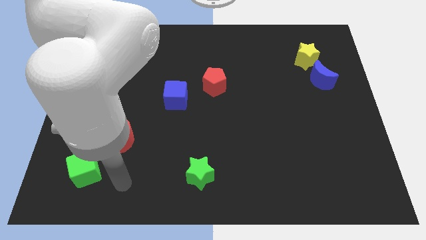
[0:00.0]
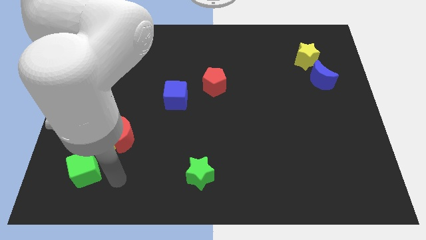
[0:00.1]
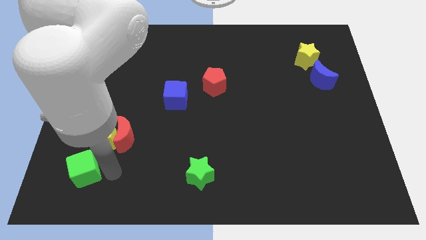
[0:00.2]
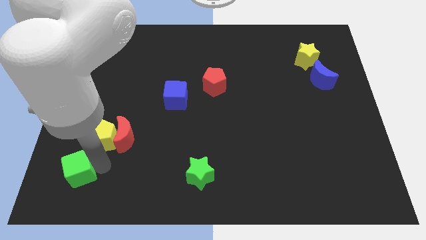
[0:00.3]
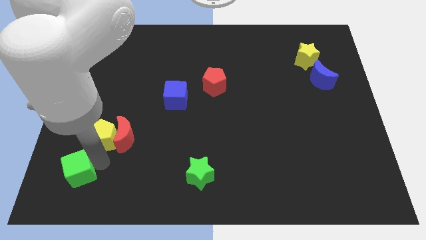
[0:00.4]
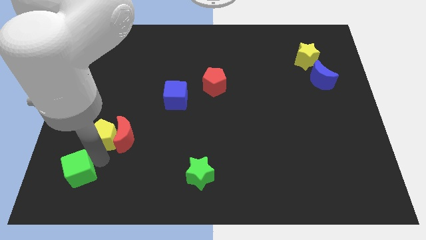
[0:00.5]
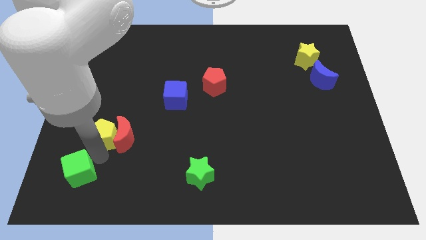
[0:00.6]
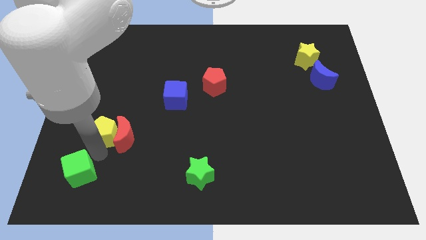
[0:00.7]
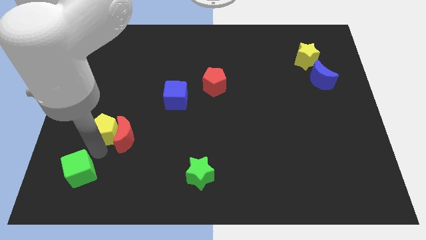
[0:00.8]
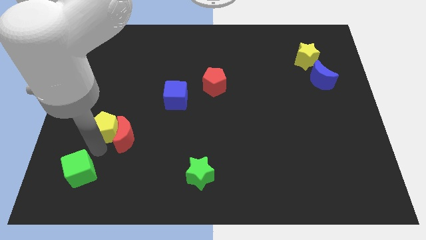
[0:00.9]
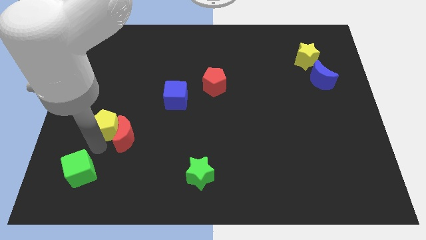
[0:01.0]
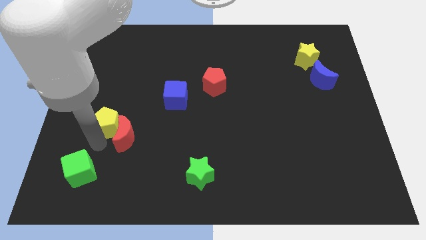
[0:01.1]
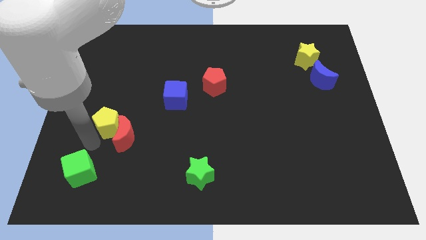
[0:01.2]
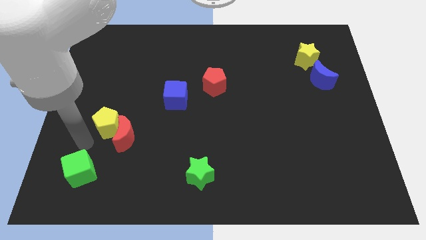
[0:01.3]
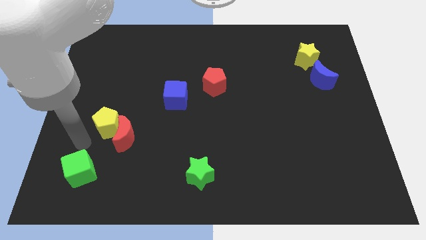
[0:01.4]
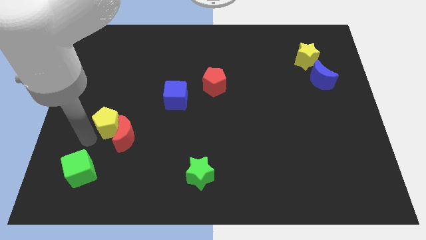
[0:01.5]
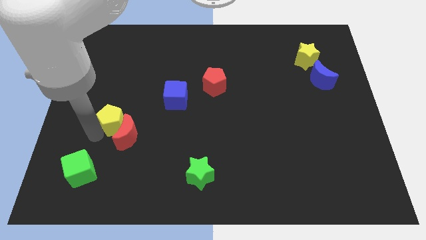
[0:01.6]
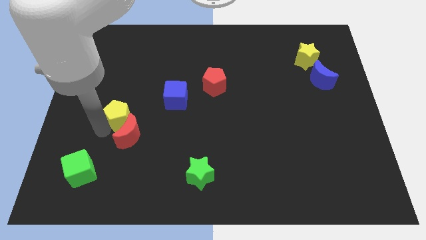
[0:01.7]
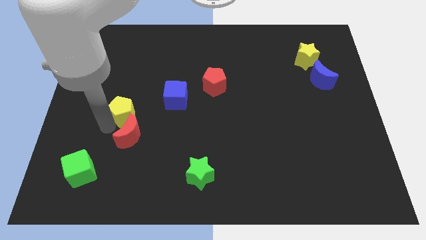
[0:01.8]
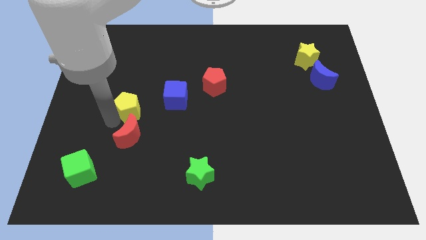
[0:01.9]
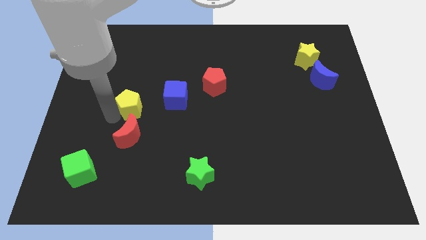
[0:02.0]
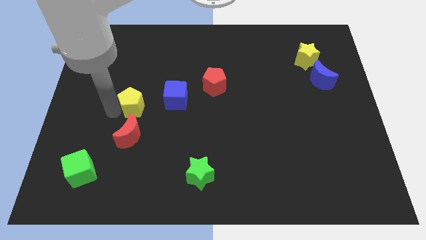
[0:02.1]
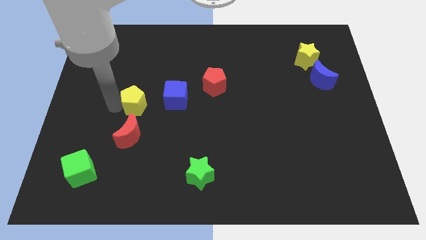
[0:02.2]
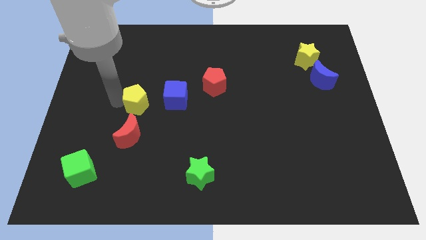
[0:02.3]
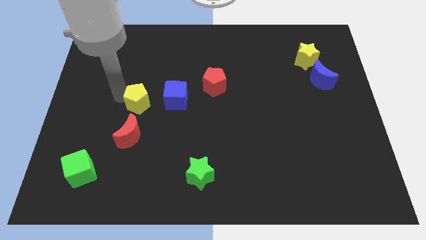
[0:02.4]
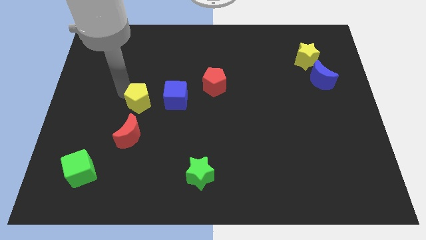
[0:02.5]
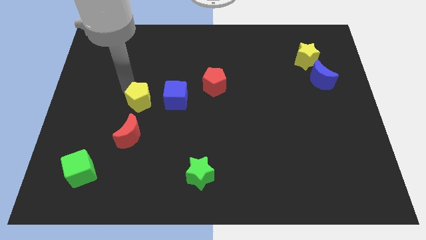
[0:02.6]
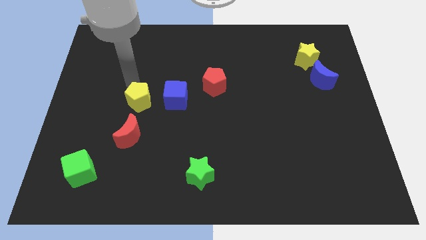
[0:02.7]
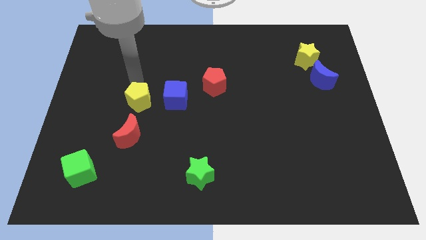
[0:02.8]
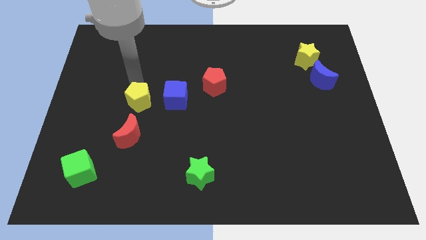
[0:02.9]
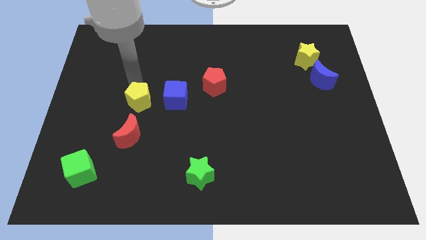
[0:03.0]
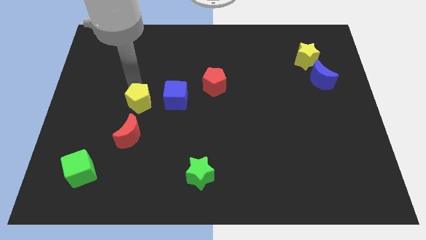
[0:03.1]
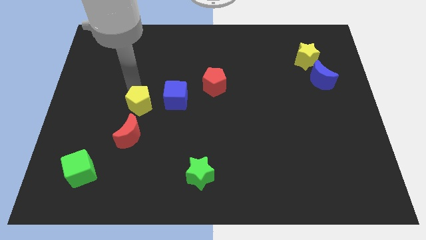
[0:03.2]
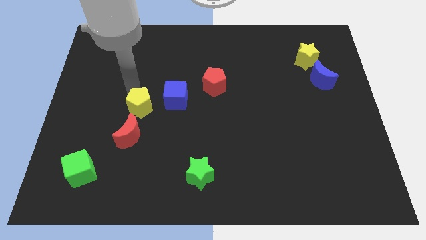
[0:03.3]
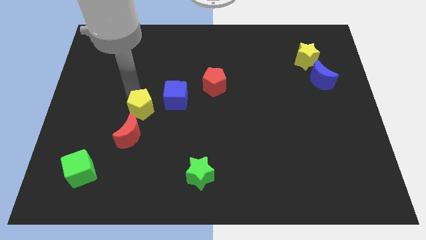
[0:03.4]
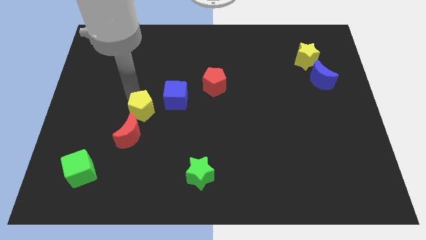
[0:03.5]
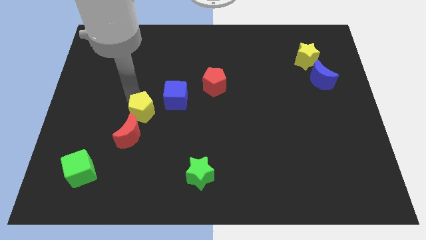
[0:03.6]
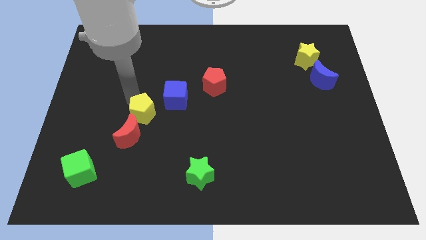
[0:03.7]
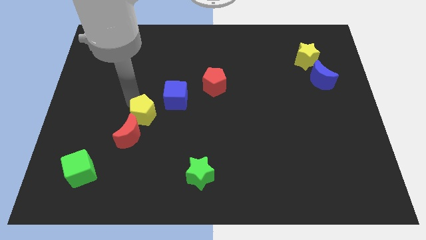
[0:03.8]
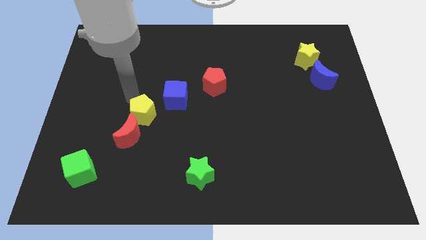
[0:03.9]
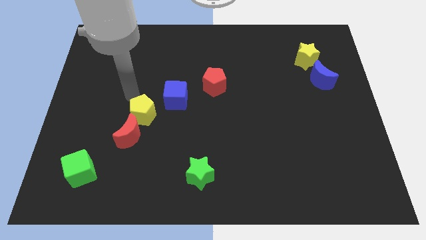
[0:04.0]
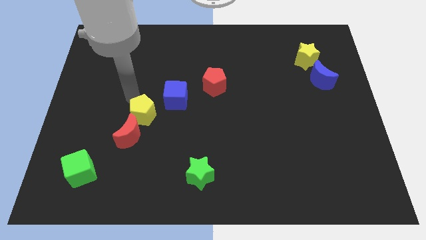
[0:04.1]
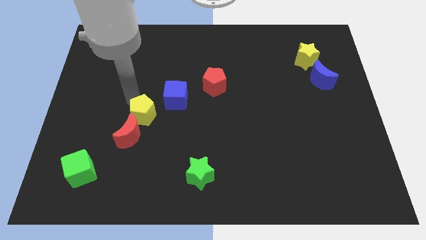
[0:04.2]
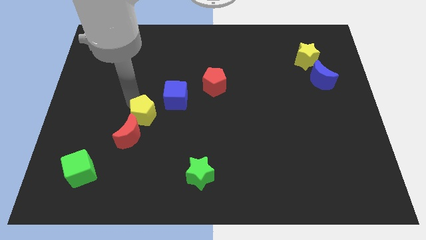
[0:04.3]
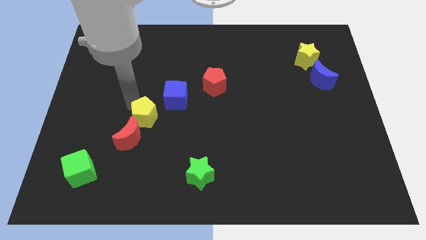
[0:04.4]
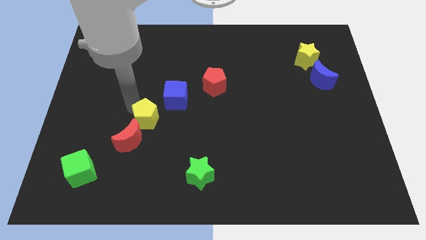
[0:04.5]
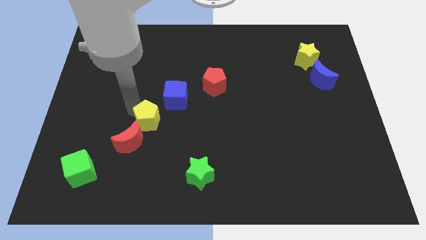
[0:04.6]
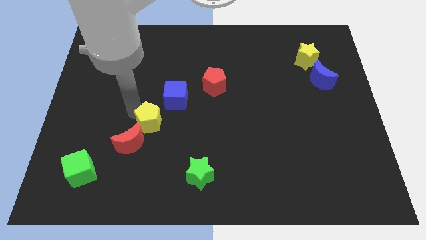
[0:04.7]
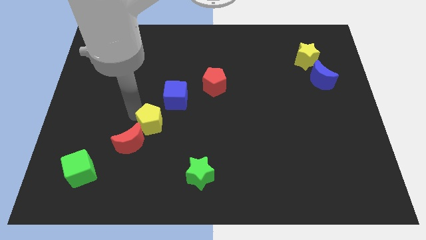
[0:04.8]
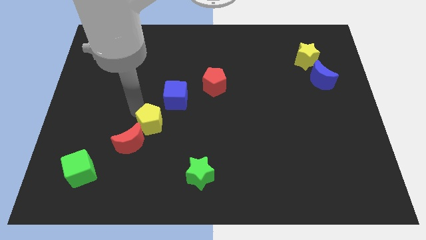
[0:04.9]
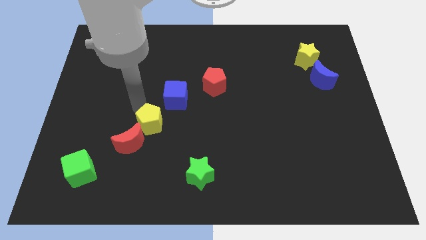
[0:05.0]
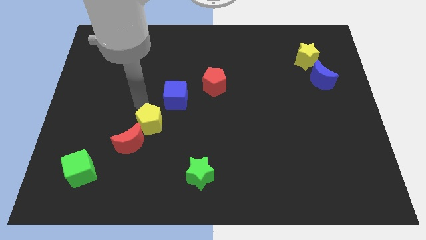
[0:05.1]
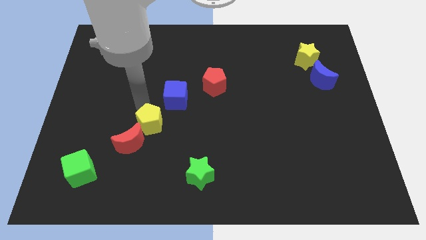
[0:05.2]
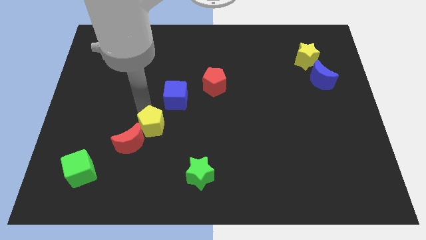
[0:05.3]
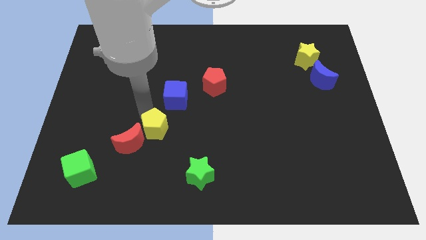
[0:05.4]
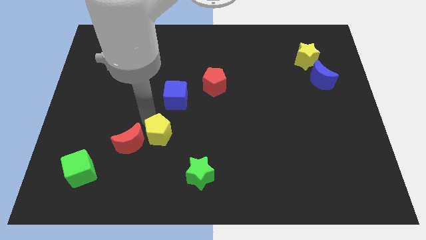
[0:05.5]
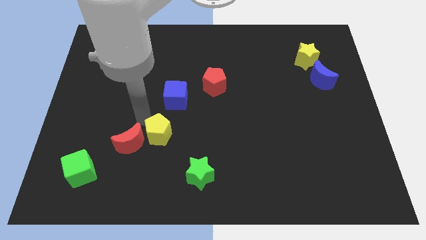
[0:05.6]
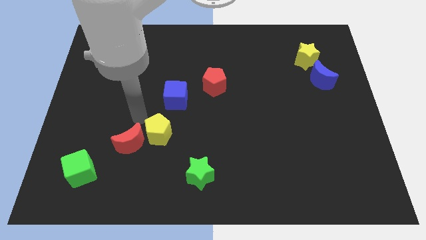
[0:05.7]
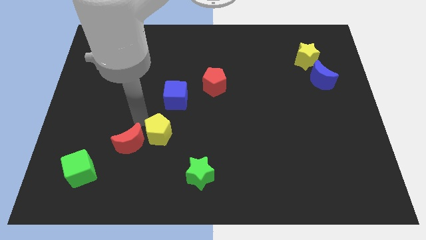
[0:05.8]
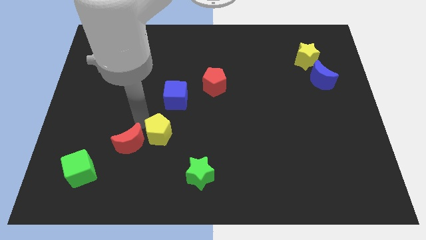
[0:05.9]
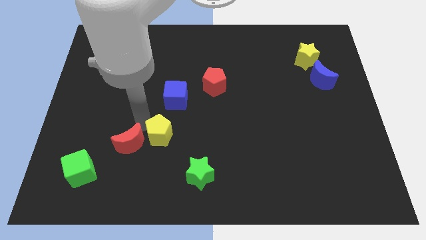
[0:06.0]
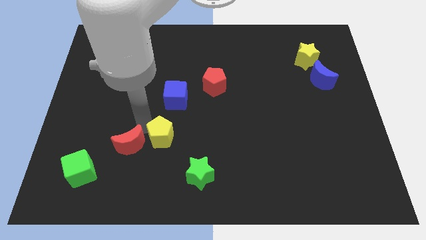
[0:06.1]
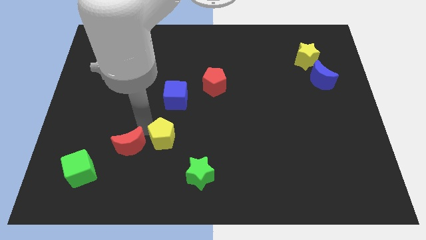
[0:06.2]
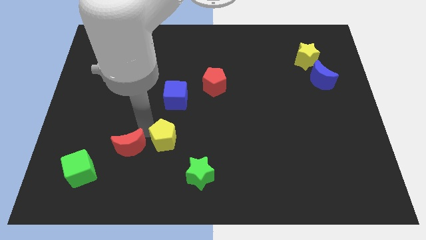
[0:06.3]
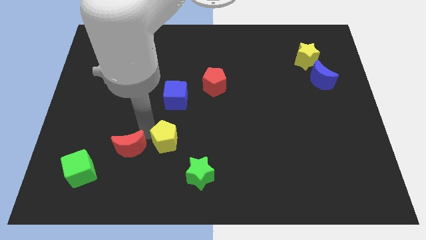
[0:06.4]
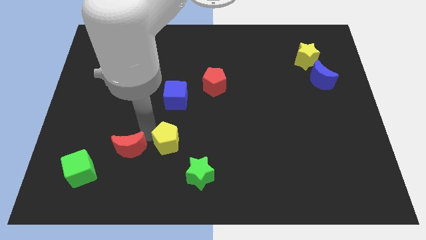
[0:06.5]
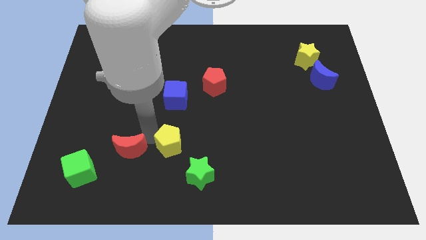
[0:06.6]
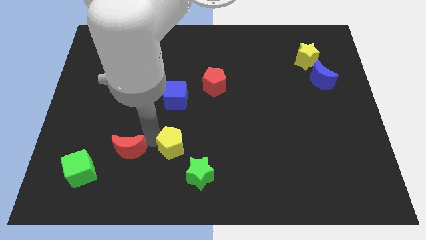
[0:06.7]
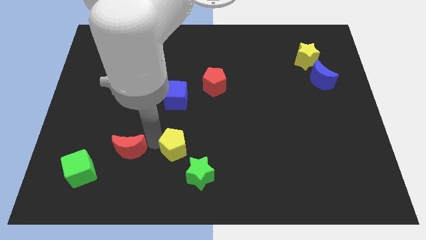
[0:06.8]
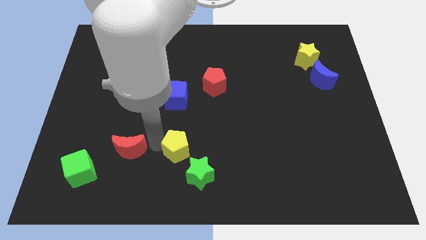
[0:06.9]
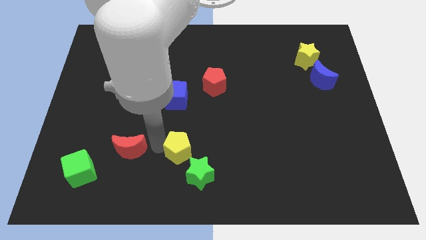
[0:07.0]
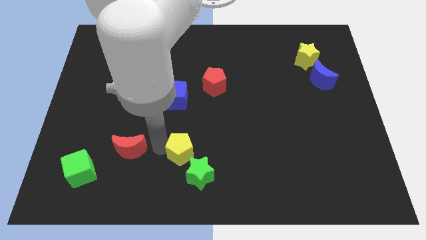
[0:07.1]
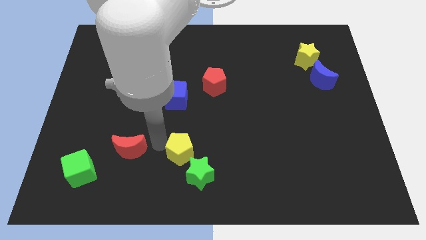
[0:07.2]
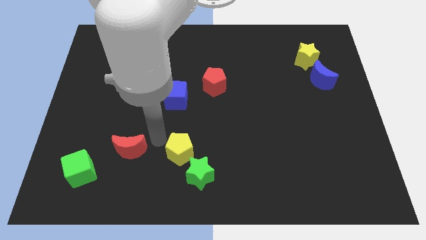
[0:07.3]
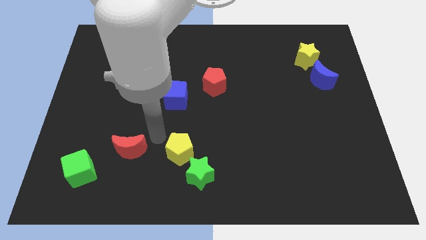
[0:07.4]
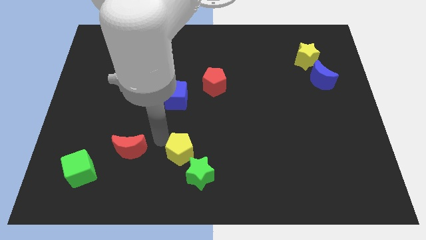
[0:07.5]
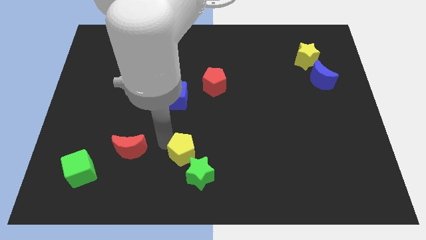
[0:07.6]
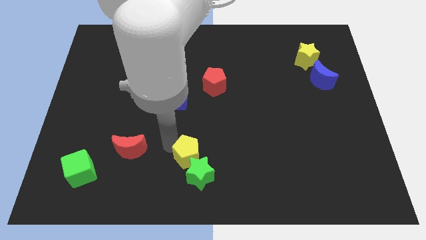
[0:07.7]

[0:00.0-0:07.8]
put the yellow pentagon close to the green star

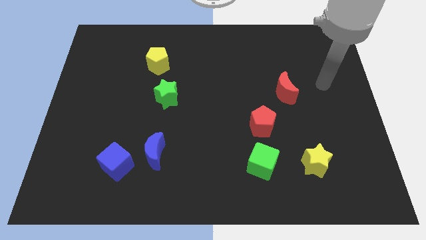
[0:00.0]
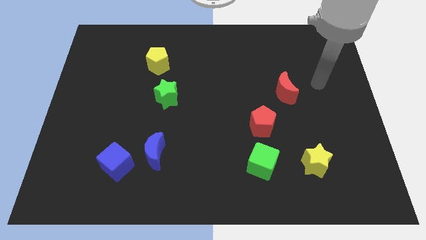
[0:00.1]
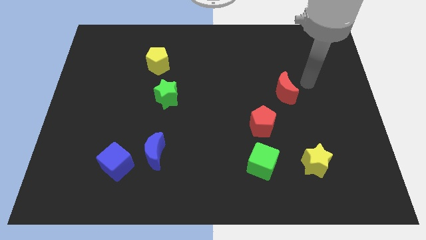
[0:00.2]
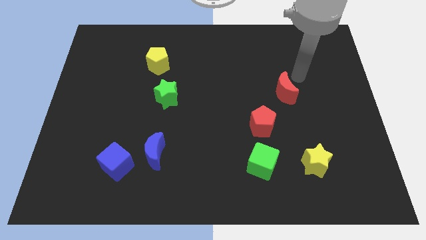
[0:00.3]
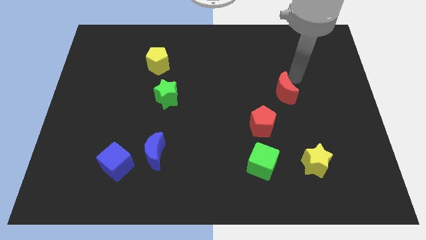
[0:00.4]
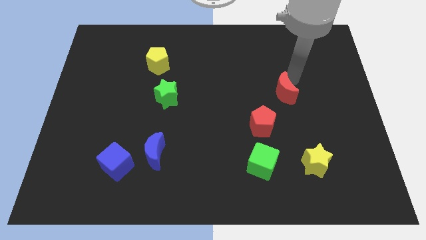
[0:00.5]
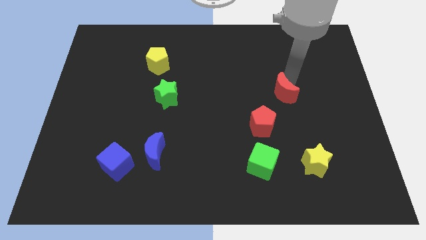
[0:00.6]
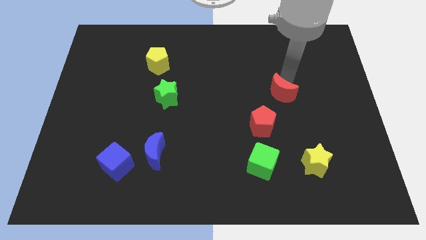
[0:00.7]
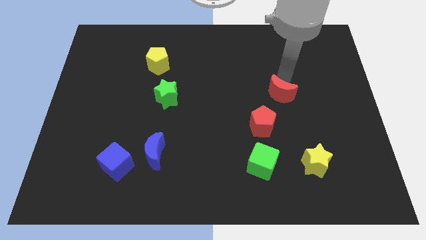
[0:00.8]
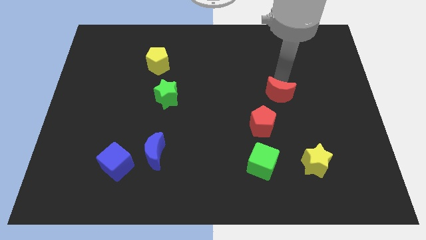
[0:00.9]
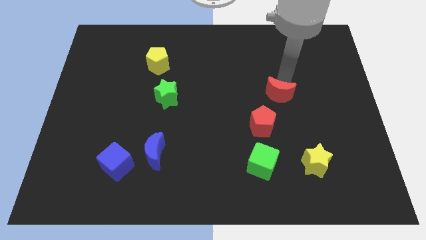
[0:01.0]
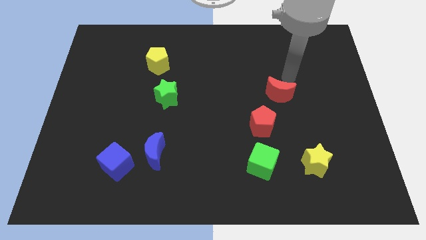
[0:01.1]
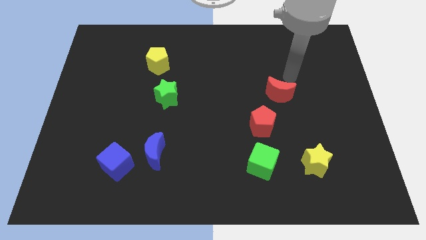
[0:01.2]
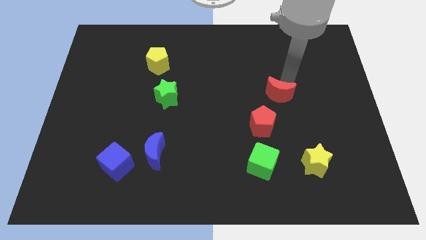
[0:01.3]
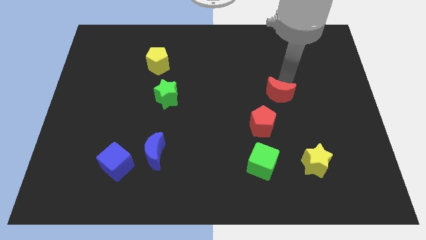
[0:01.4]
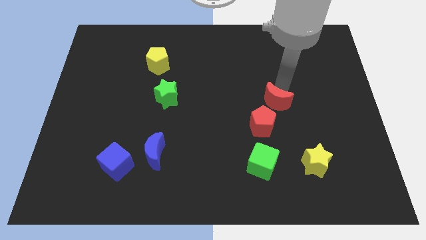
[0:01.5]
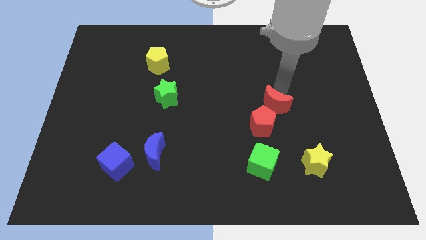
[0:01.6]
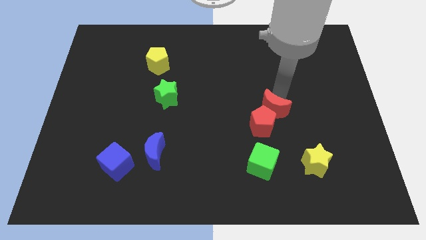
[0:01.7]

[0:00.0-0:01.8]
move the red moon to the red pentagon
